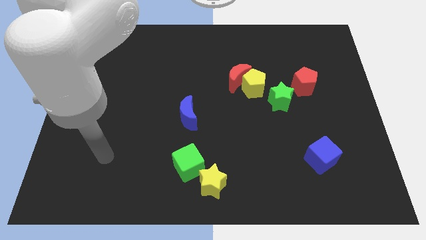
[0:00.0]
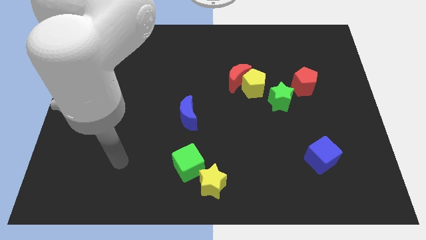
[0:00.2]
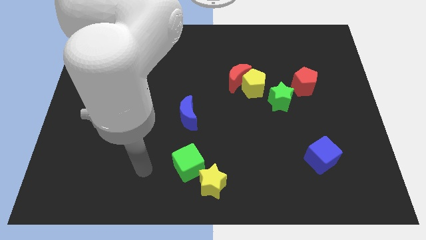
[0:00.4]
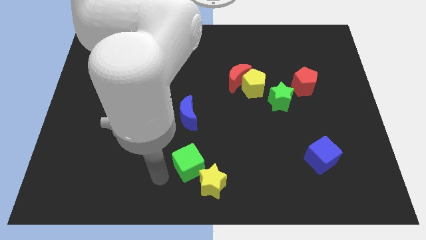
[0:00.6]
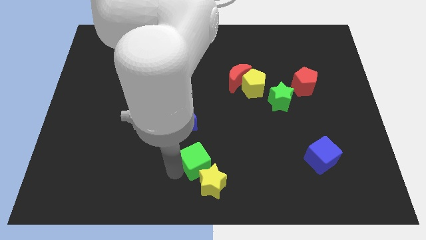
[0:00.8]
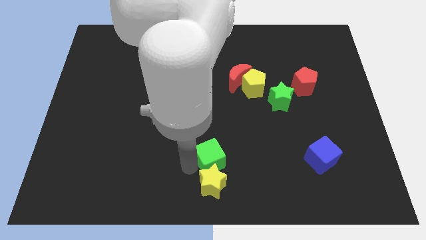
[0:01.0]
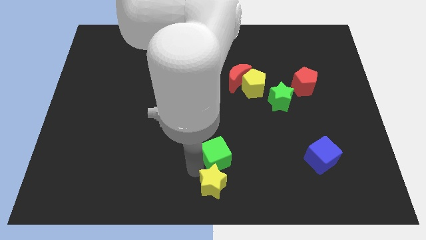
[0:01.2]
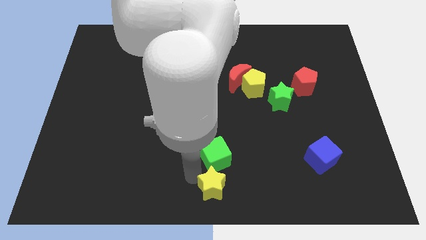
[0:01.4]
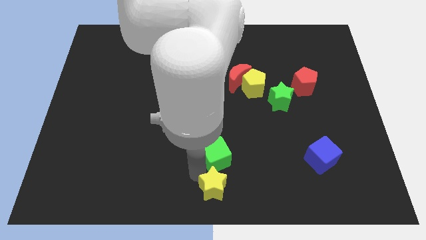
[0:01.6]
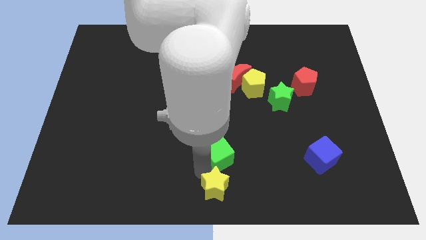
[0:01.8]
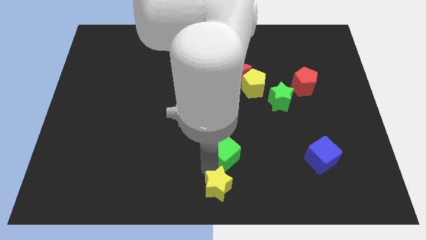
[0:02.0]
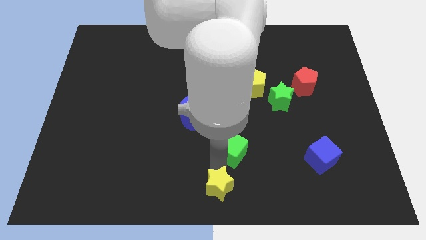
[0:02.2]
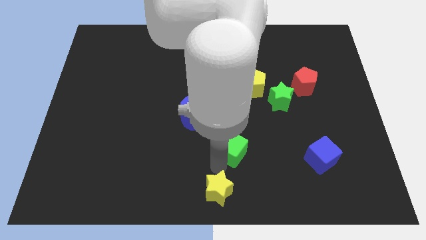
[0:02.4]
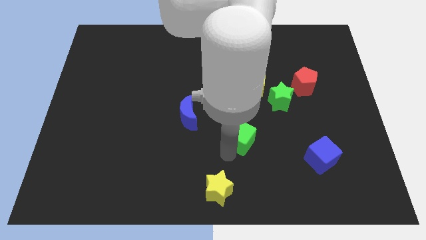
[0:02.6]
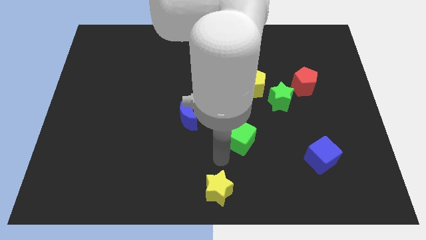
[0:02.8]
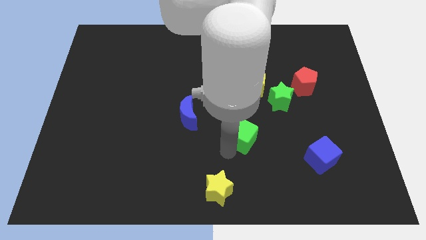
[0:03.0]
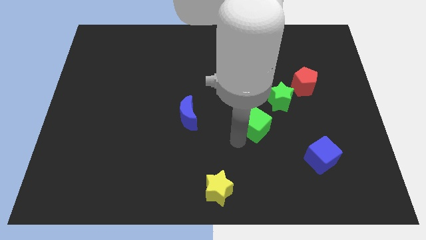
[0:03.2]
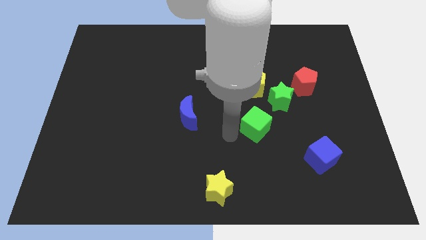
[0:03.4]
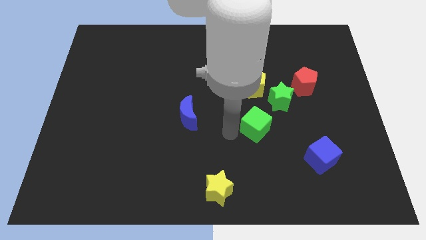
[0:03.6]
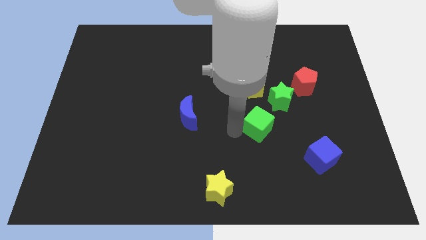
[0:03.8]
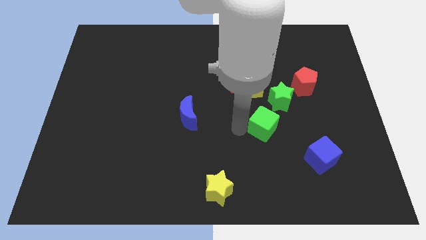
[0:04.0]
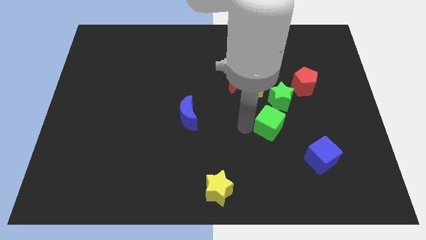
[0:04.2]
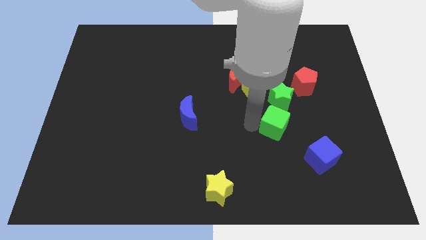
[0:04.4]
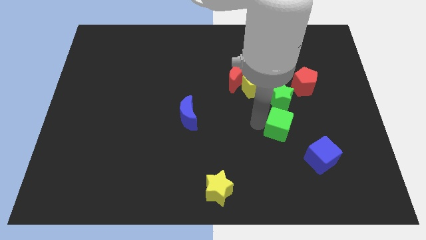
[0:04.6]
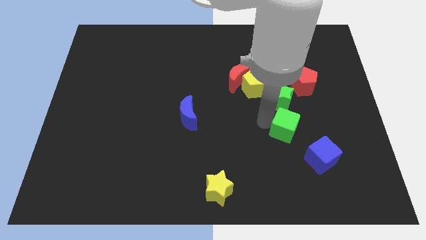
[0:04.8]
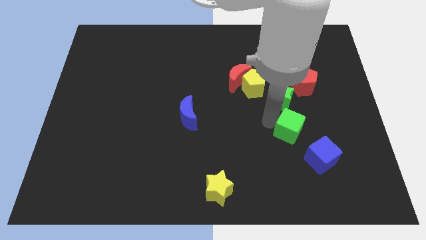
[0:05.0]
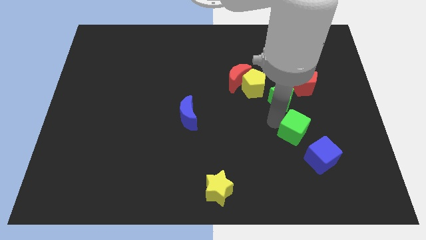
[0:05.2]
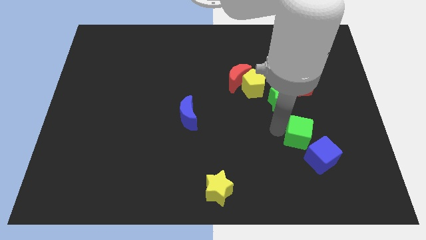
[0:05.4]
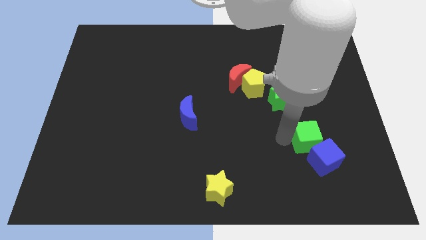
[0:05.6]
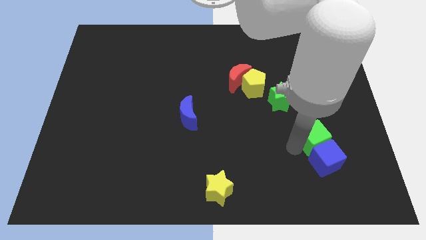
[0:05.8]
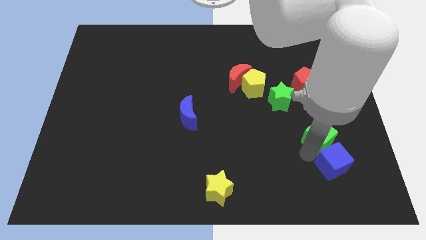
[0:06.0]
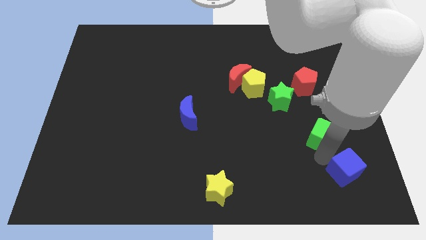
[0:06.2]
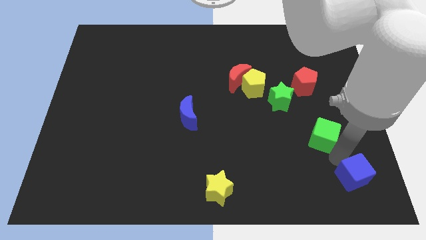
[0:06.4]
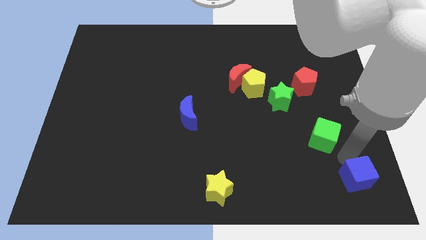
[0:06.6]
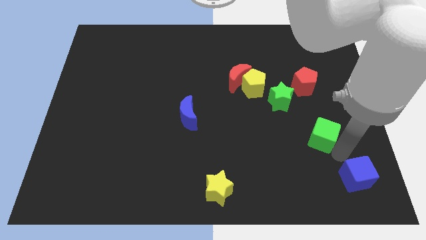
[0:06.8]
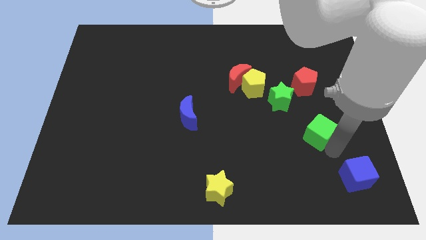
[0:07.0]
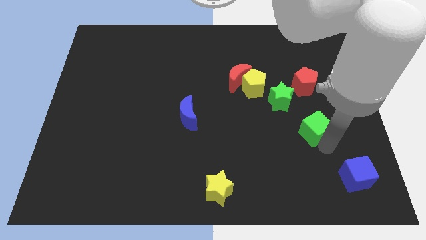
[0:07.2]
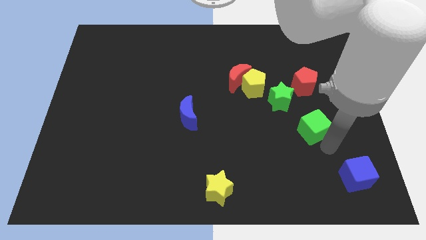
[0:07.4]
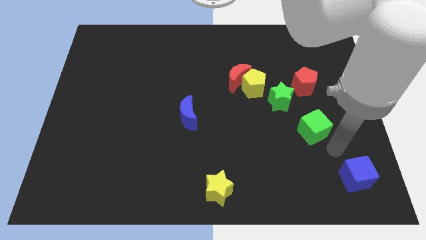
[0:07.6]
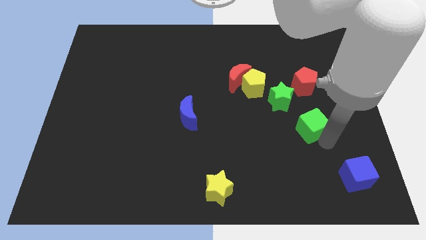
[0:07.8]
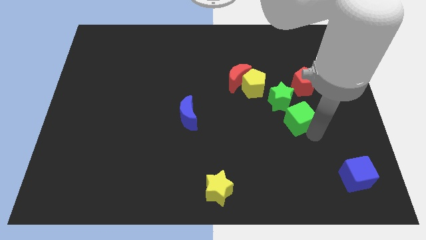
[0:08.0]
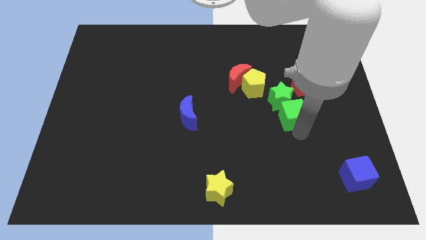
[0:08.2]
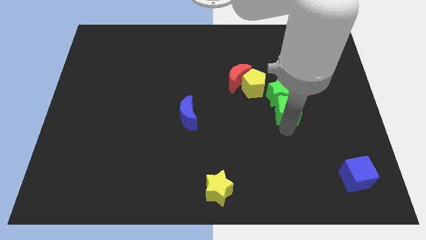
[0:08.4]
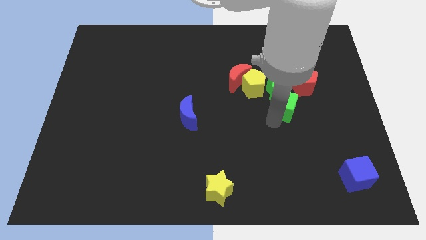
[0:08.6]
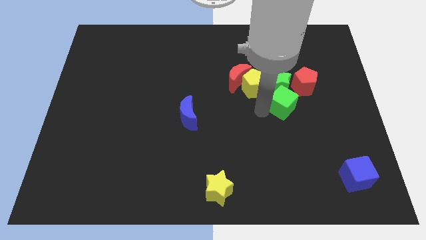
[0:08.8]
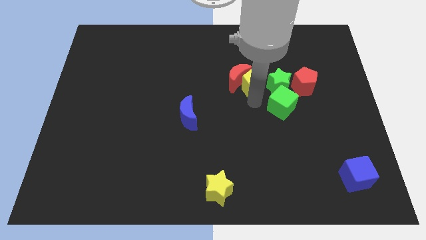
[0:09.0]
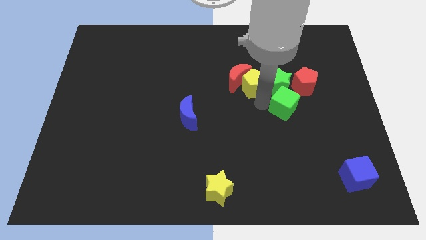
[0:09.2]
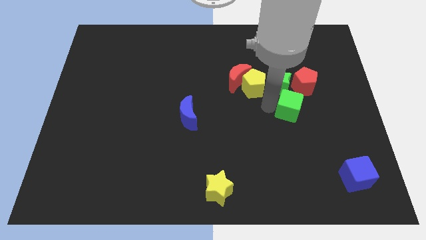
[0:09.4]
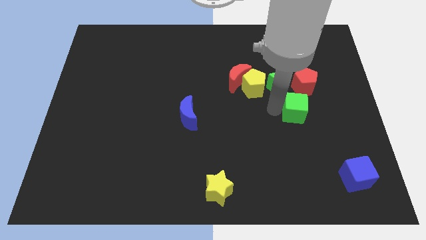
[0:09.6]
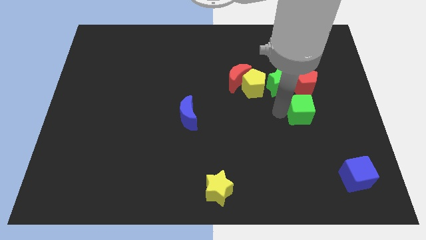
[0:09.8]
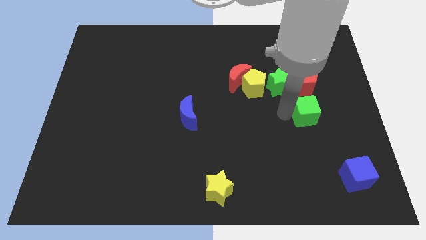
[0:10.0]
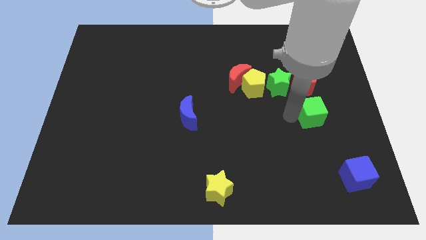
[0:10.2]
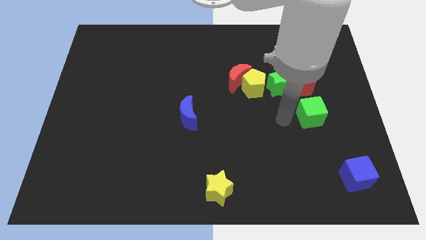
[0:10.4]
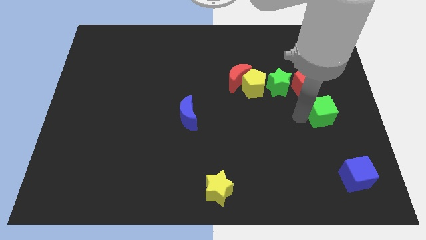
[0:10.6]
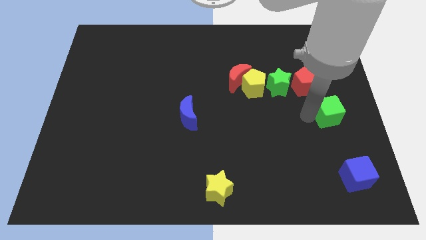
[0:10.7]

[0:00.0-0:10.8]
put the green cube to the center right

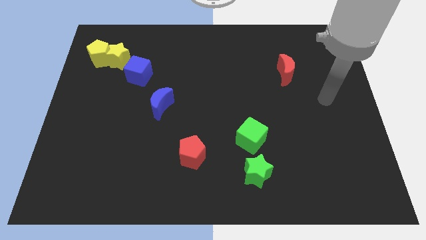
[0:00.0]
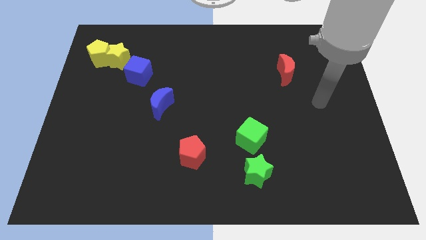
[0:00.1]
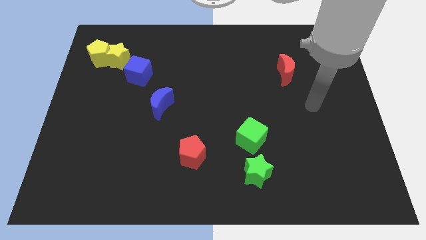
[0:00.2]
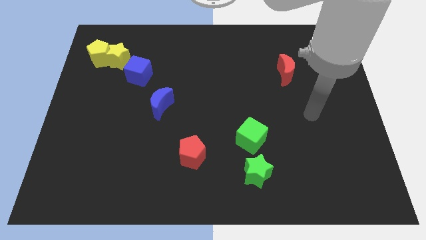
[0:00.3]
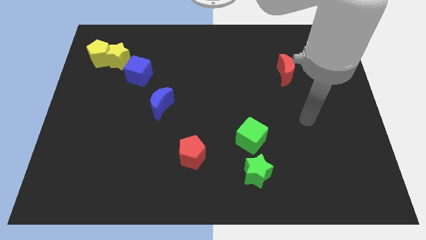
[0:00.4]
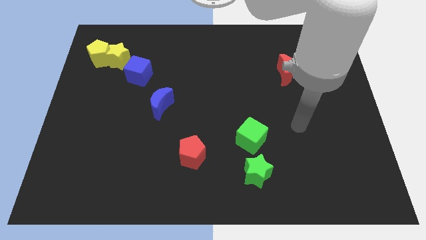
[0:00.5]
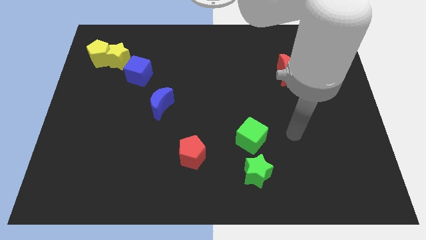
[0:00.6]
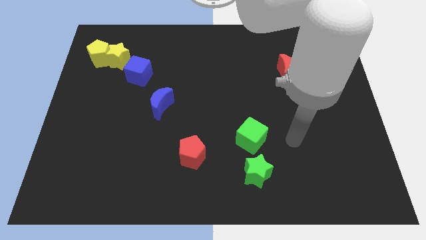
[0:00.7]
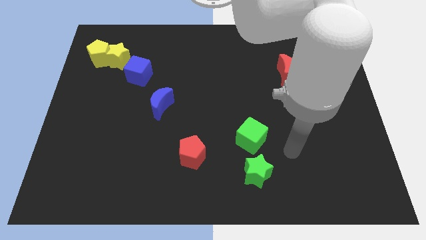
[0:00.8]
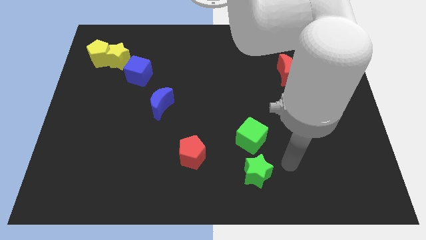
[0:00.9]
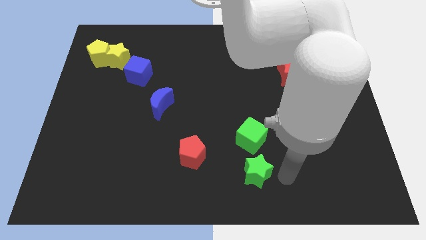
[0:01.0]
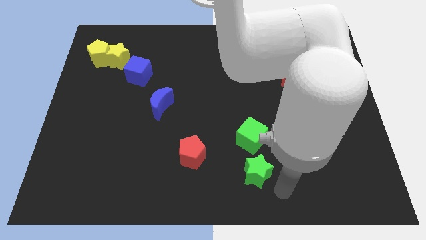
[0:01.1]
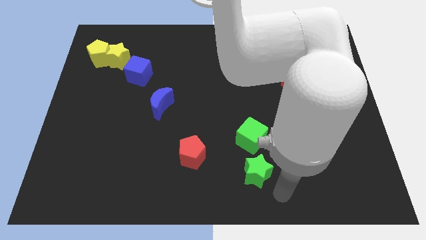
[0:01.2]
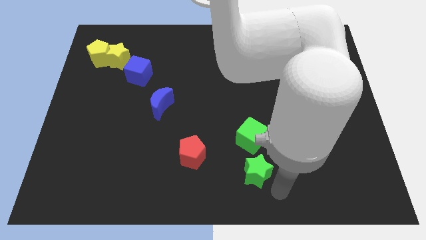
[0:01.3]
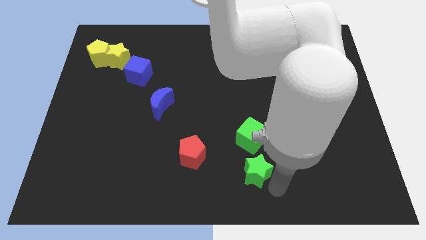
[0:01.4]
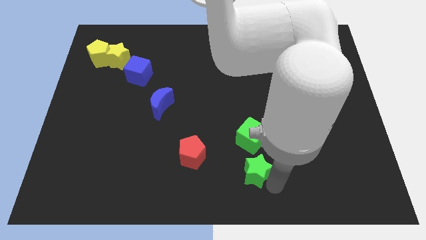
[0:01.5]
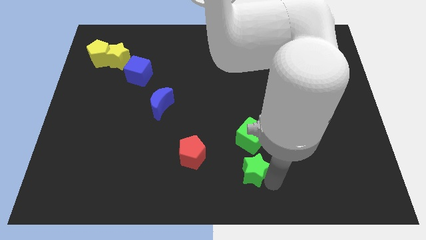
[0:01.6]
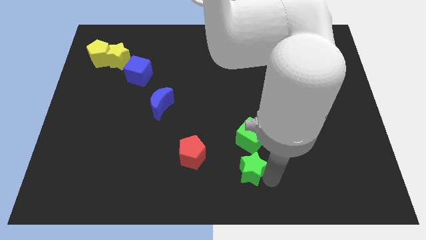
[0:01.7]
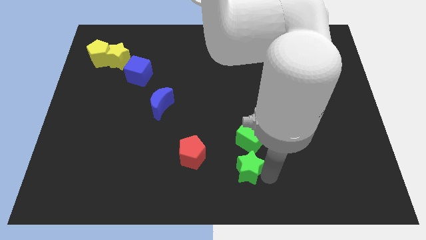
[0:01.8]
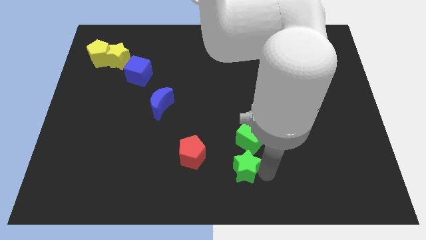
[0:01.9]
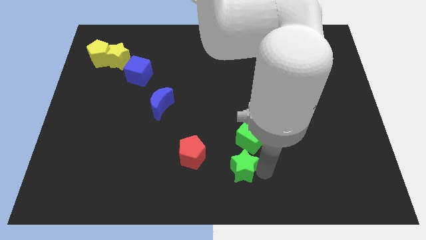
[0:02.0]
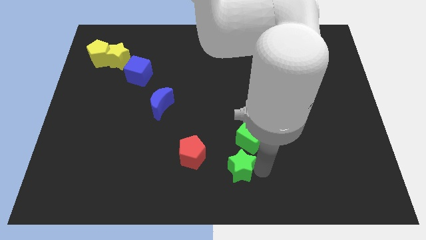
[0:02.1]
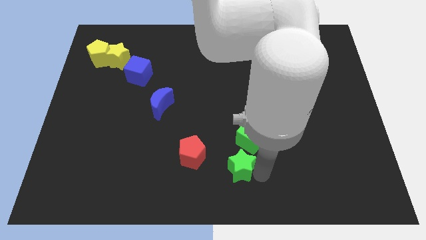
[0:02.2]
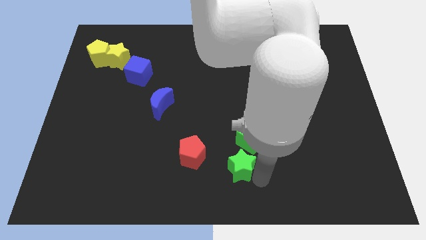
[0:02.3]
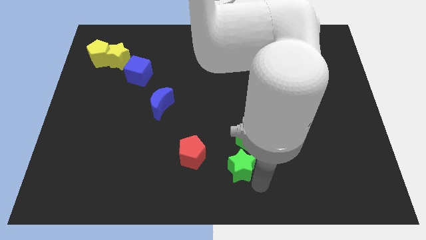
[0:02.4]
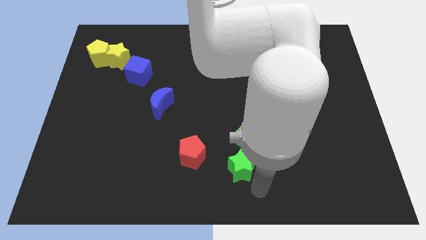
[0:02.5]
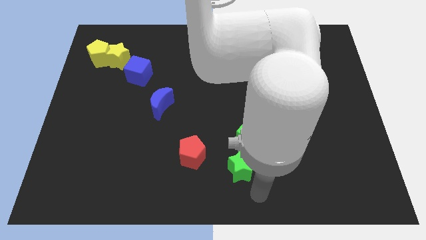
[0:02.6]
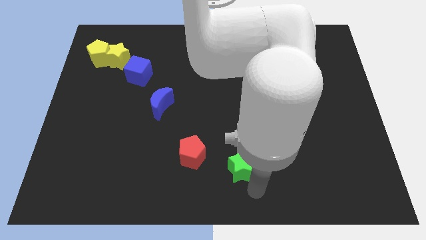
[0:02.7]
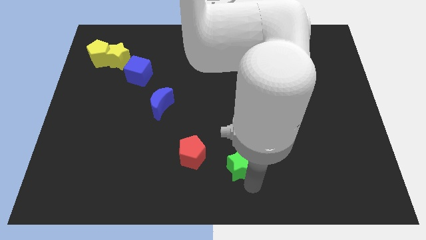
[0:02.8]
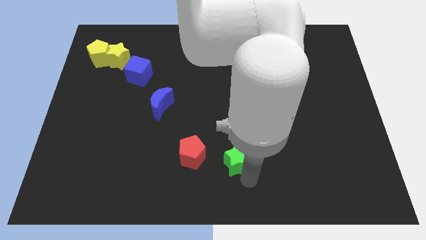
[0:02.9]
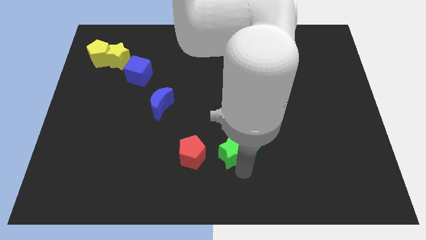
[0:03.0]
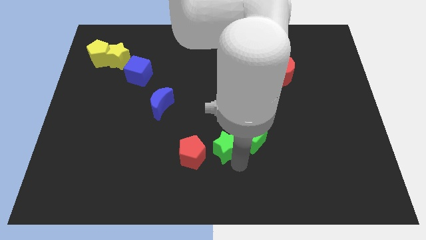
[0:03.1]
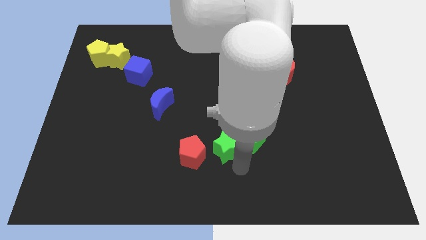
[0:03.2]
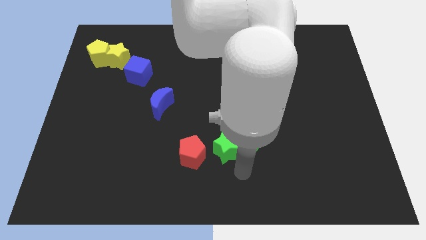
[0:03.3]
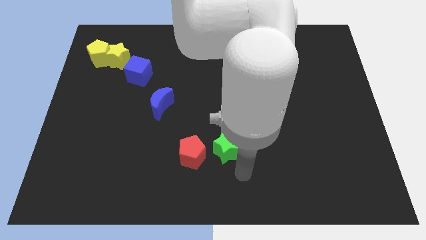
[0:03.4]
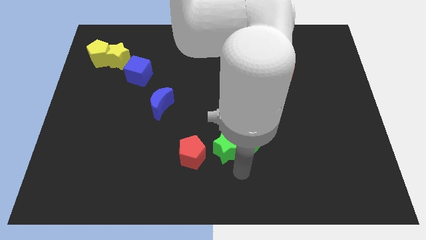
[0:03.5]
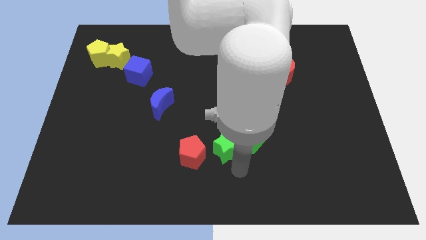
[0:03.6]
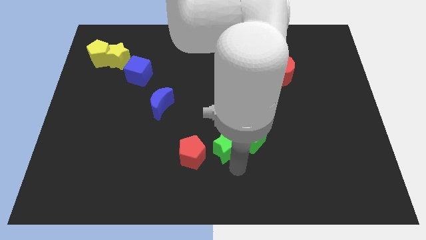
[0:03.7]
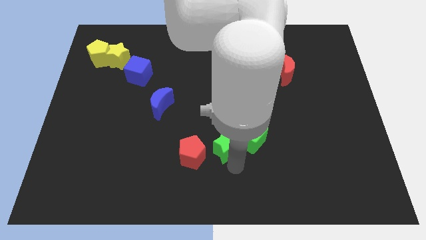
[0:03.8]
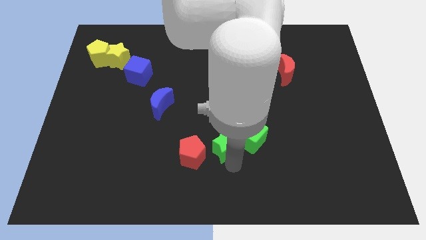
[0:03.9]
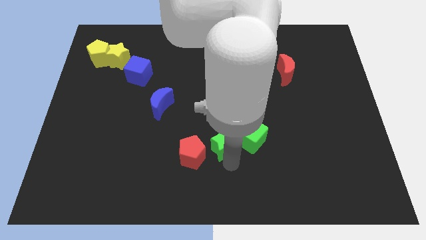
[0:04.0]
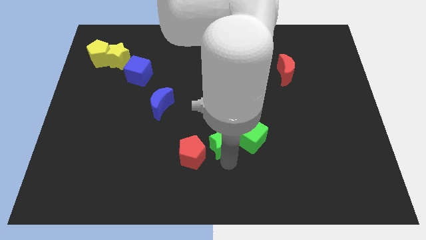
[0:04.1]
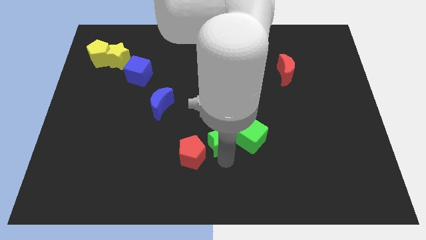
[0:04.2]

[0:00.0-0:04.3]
move the green star to the middle
